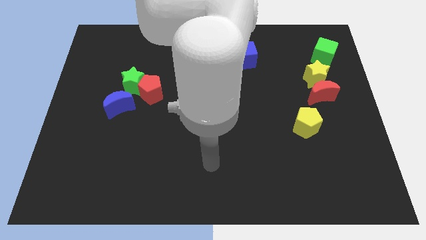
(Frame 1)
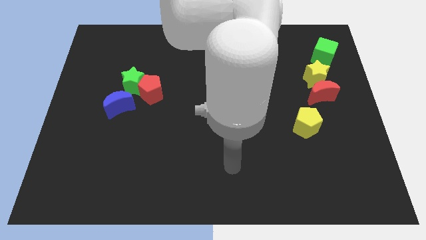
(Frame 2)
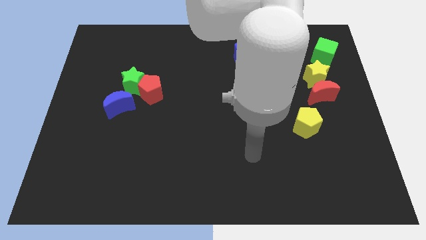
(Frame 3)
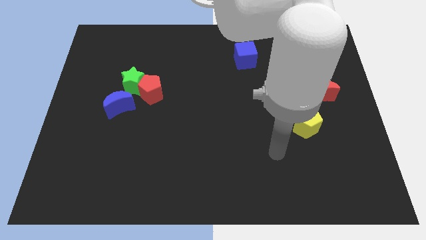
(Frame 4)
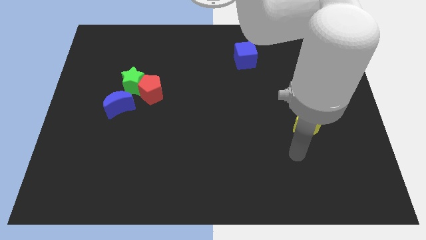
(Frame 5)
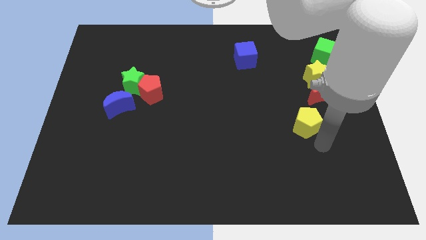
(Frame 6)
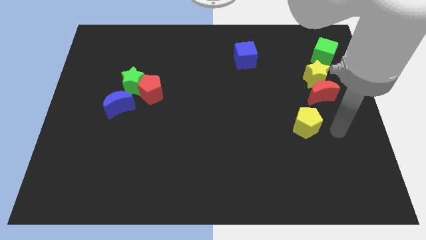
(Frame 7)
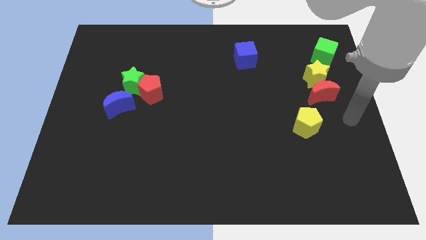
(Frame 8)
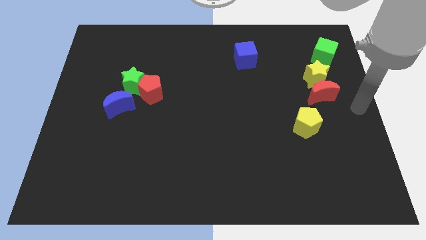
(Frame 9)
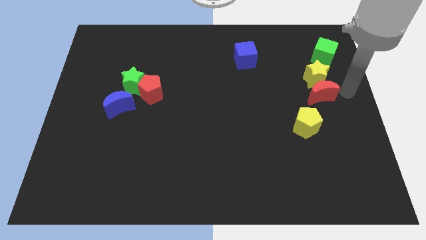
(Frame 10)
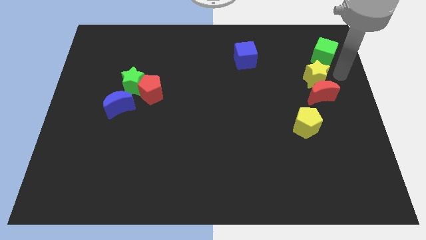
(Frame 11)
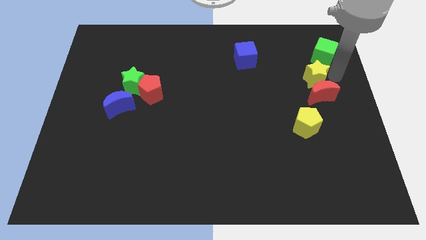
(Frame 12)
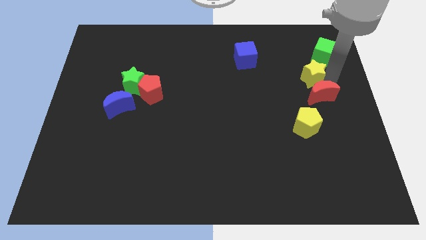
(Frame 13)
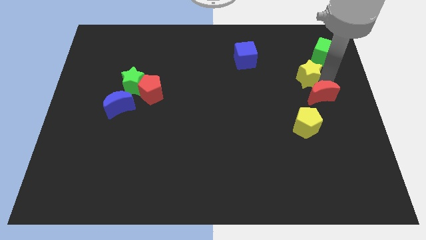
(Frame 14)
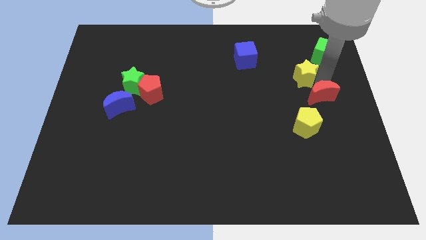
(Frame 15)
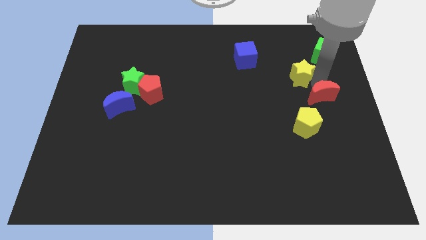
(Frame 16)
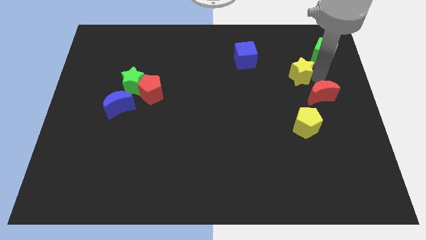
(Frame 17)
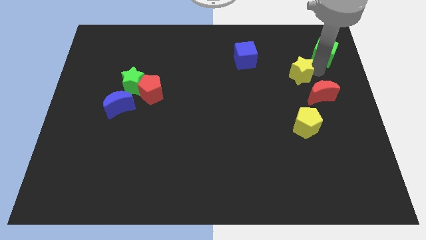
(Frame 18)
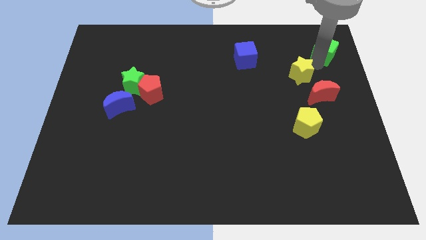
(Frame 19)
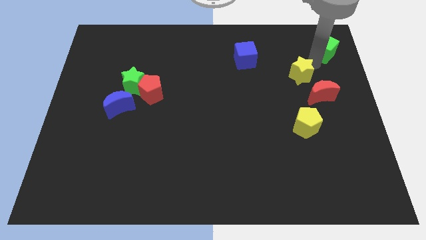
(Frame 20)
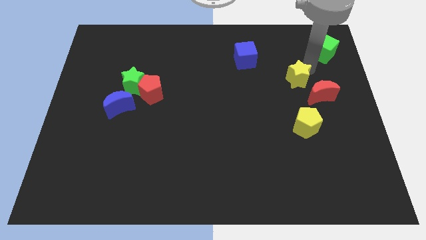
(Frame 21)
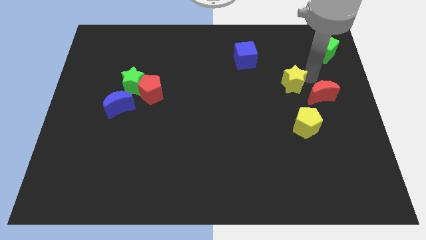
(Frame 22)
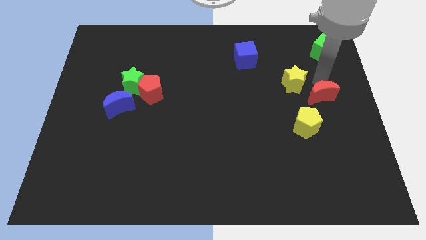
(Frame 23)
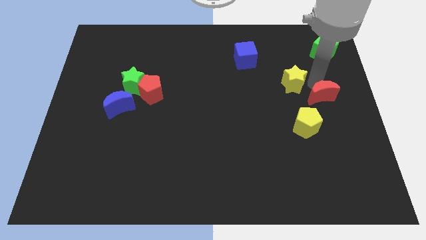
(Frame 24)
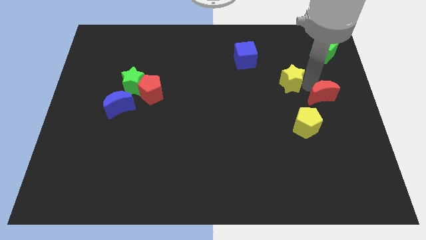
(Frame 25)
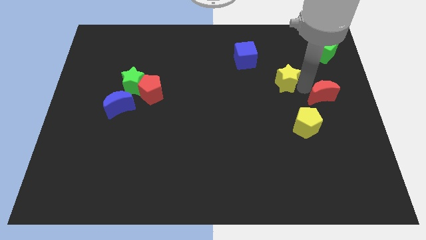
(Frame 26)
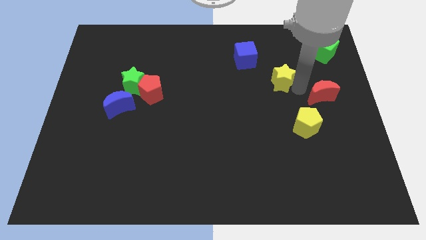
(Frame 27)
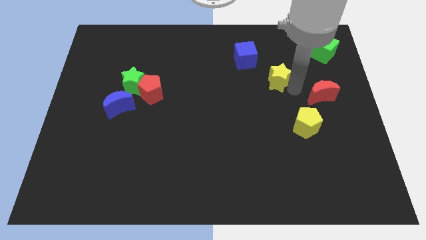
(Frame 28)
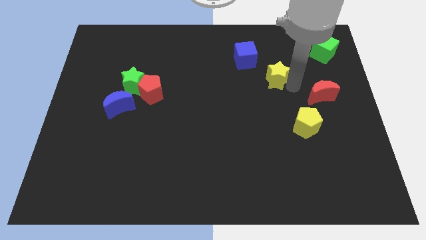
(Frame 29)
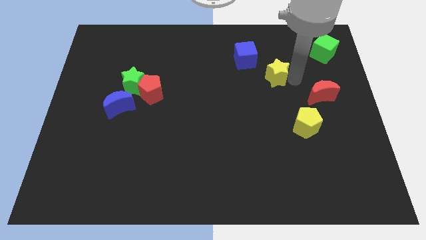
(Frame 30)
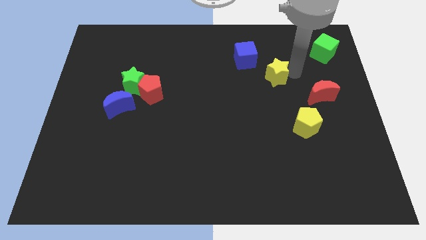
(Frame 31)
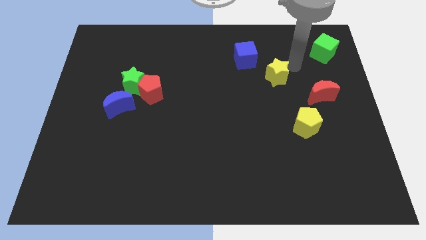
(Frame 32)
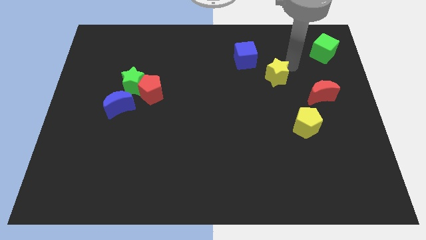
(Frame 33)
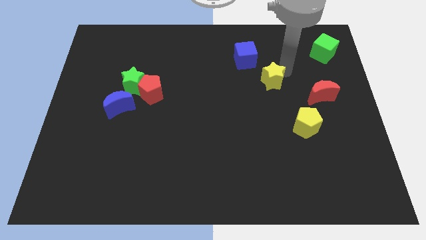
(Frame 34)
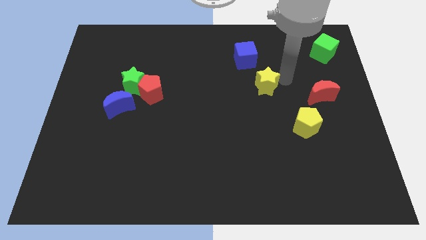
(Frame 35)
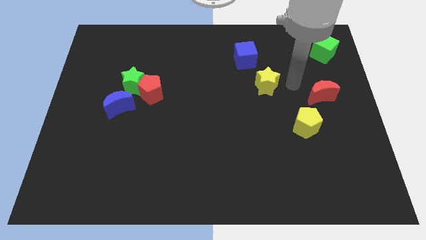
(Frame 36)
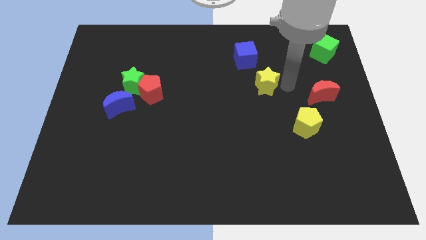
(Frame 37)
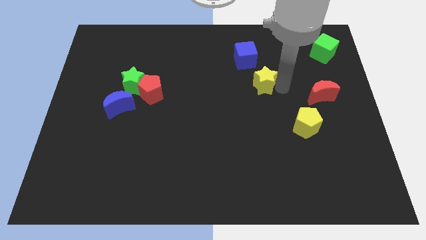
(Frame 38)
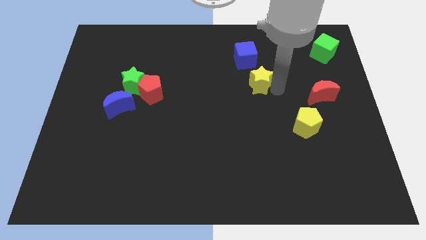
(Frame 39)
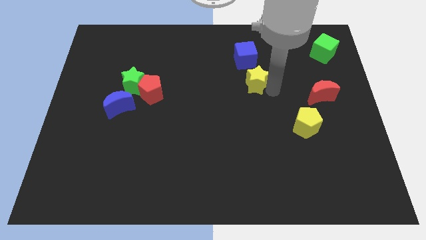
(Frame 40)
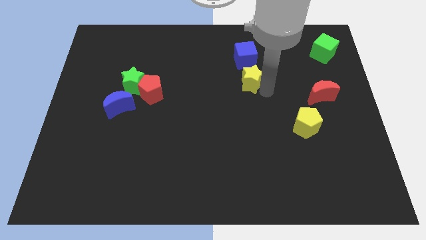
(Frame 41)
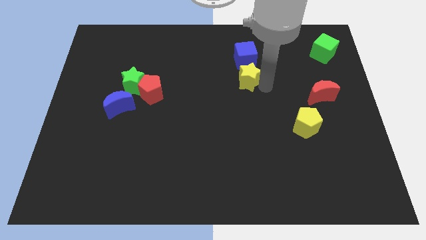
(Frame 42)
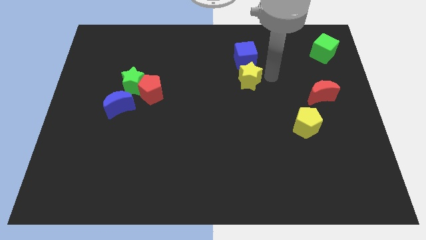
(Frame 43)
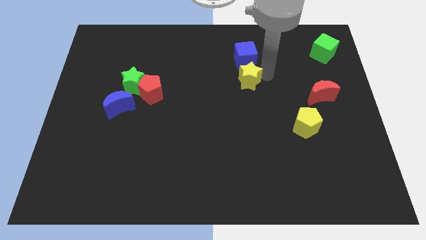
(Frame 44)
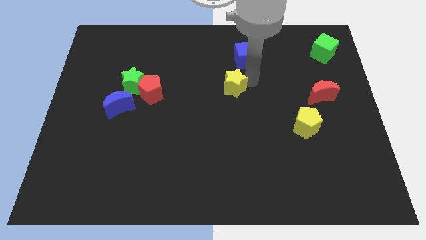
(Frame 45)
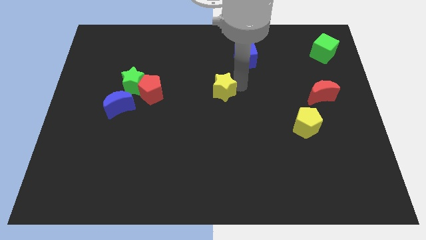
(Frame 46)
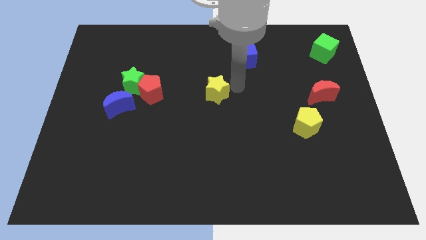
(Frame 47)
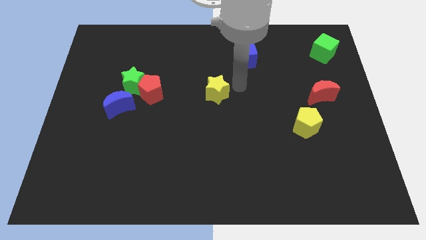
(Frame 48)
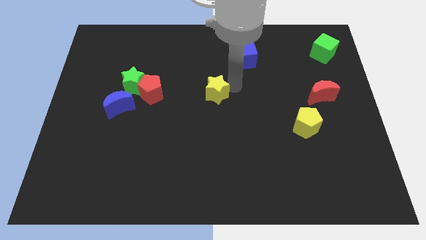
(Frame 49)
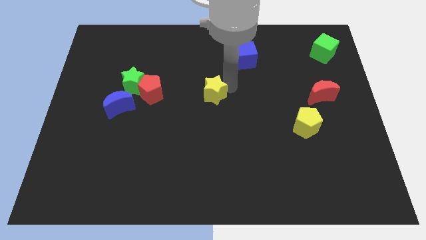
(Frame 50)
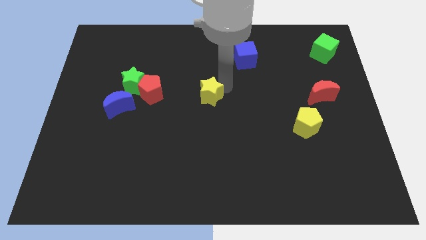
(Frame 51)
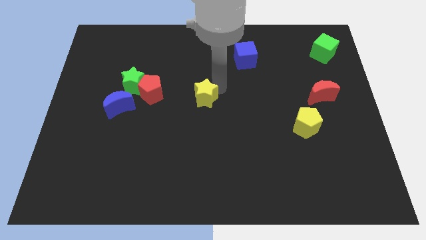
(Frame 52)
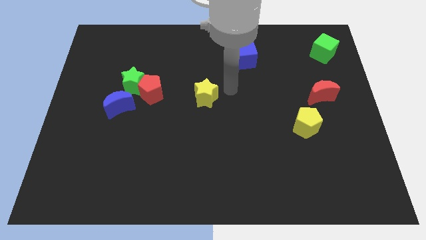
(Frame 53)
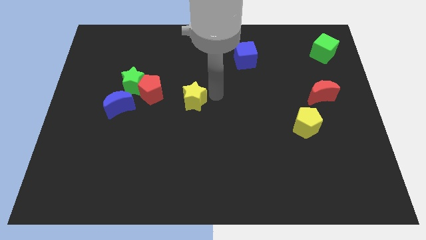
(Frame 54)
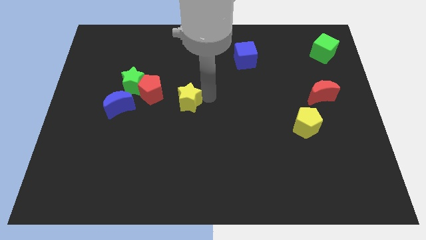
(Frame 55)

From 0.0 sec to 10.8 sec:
slide the yellow star to the bottom right of the red pentagon

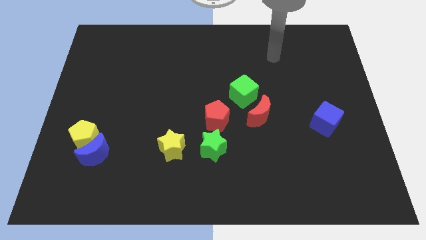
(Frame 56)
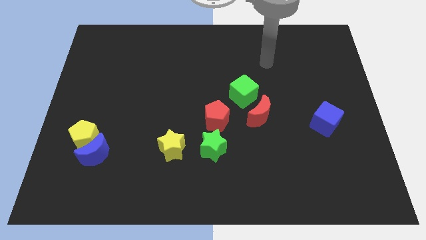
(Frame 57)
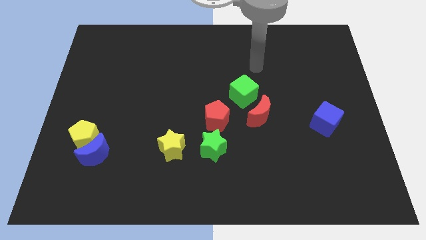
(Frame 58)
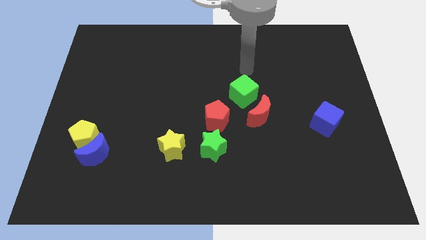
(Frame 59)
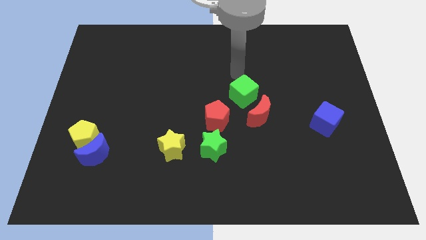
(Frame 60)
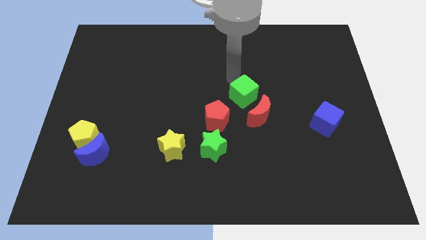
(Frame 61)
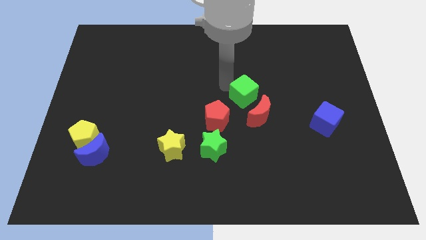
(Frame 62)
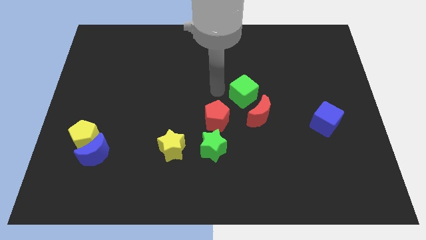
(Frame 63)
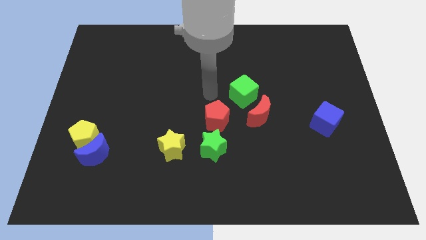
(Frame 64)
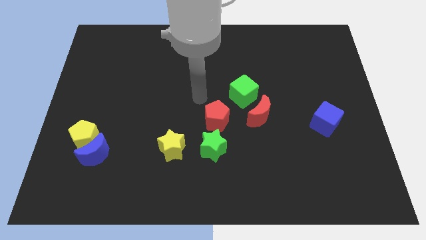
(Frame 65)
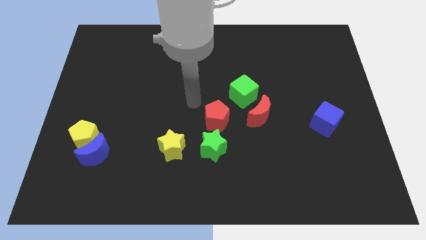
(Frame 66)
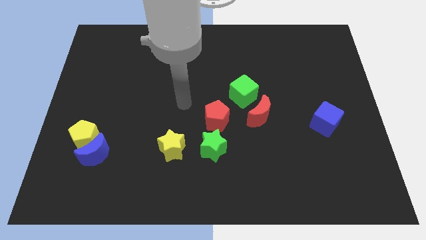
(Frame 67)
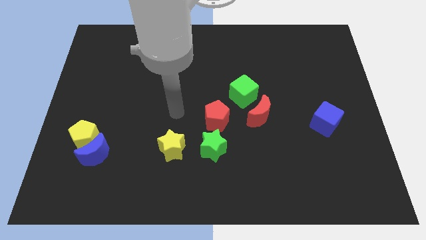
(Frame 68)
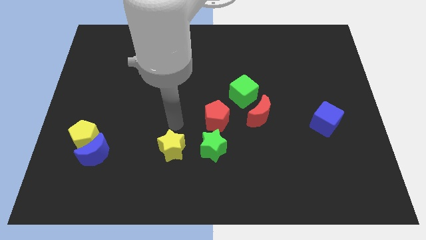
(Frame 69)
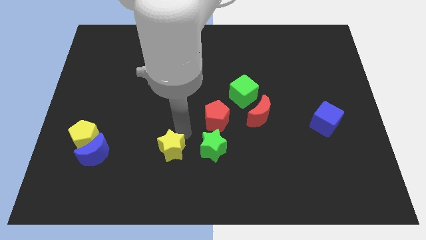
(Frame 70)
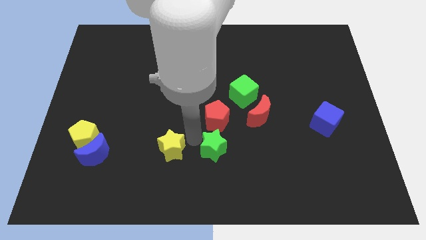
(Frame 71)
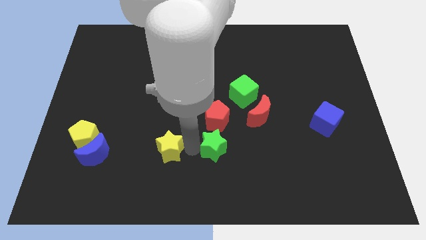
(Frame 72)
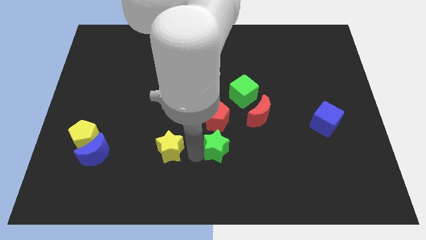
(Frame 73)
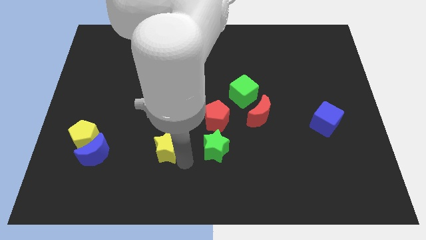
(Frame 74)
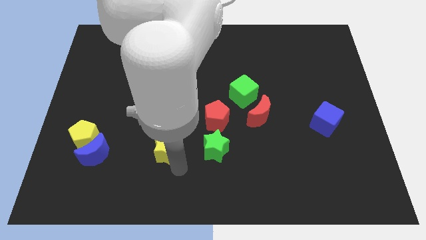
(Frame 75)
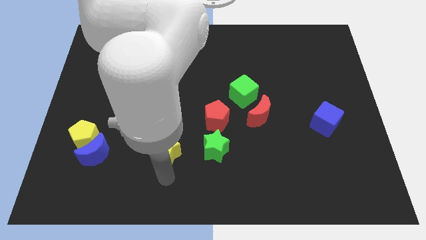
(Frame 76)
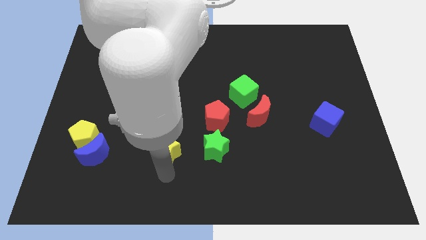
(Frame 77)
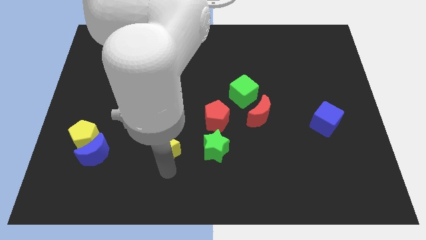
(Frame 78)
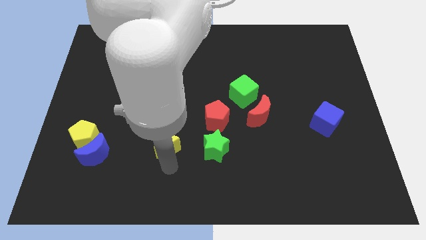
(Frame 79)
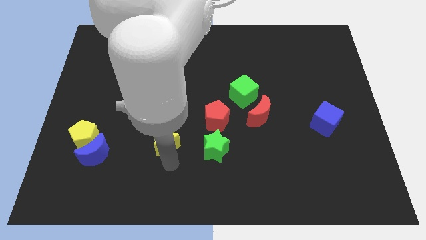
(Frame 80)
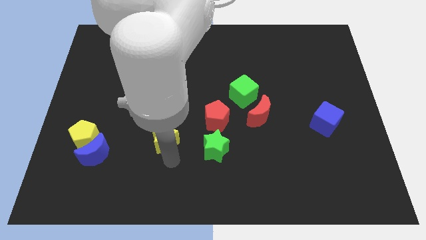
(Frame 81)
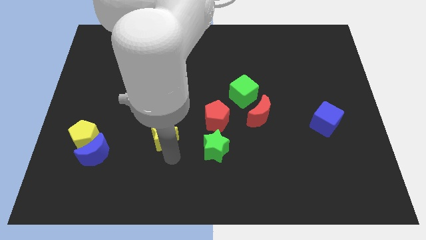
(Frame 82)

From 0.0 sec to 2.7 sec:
put the yellow star left of the red pentagon
